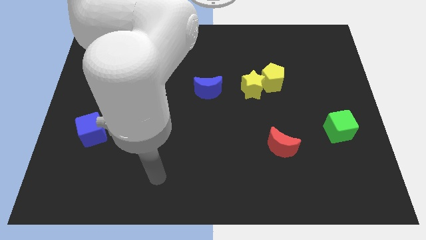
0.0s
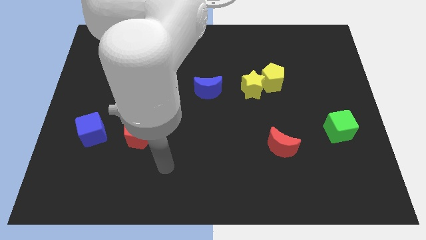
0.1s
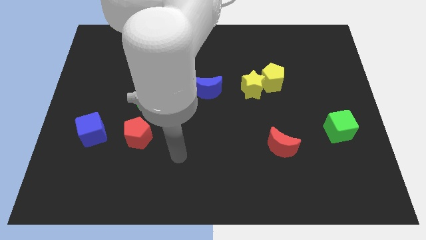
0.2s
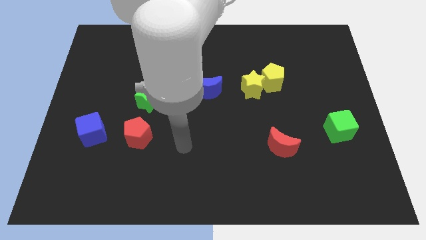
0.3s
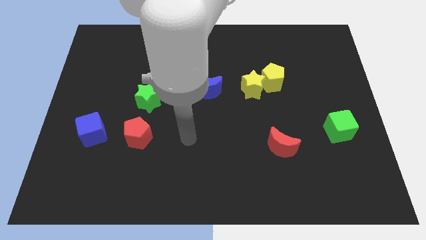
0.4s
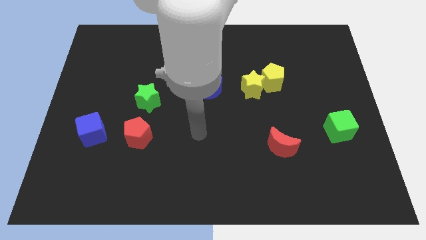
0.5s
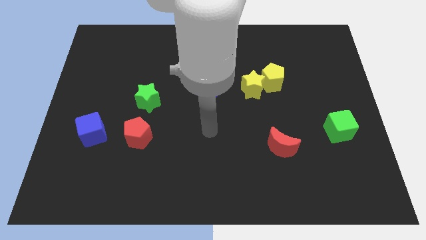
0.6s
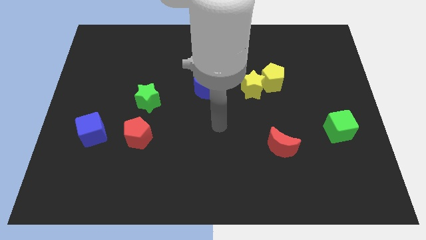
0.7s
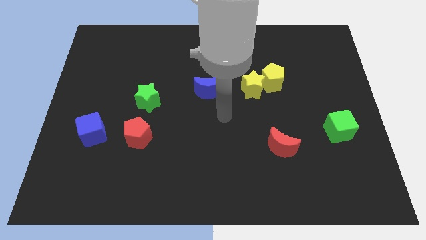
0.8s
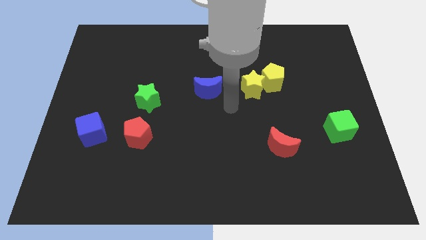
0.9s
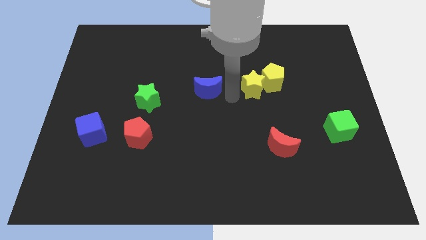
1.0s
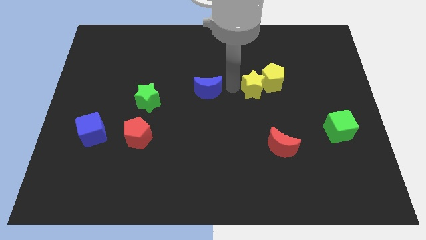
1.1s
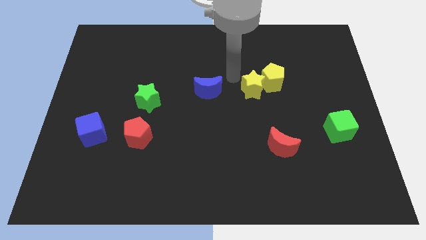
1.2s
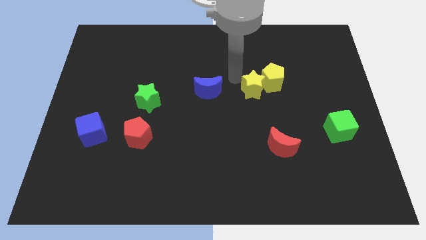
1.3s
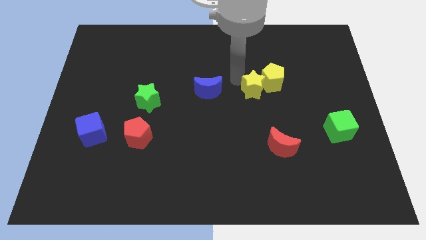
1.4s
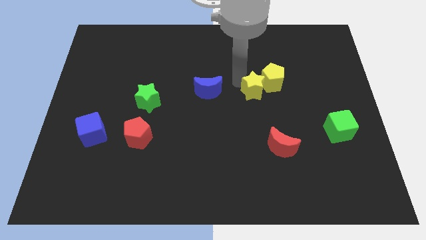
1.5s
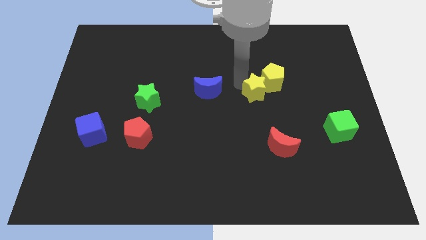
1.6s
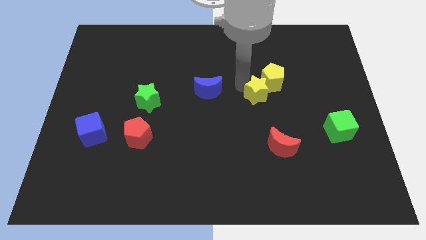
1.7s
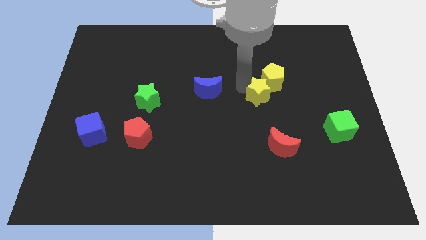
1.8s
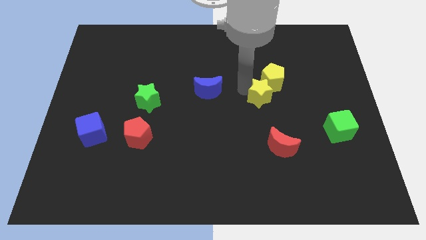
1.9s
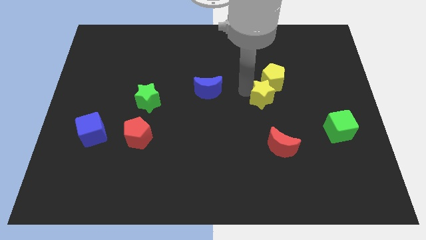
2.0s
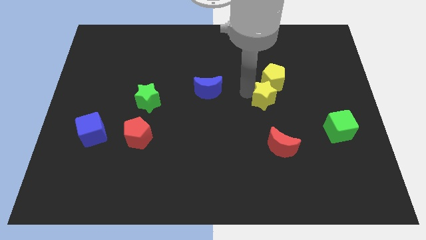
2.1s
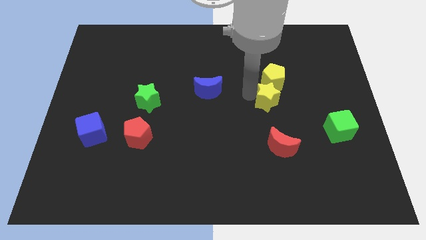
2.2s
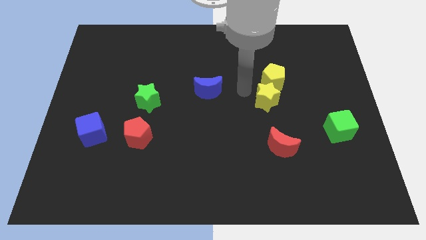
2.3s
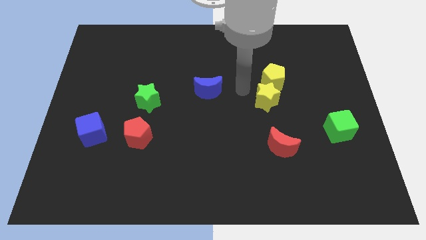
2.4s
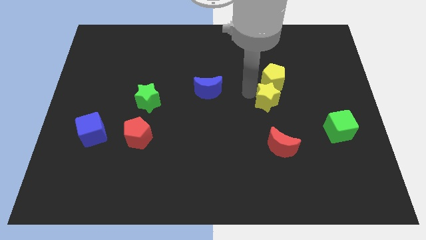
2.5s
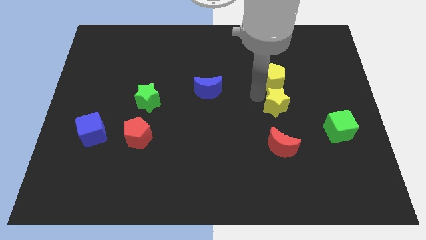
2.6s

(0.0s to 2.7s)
move the yellow star down and to the right a little

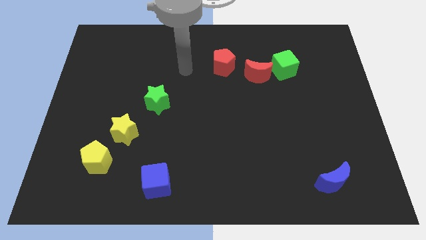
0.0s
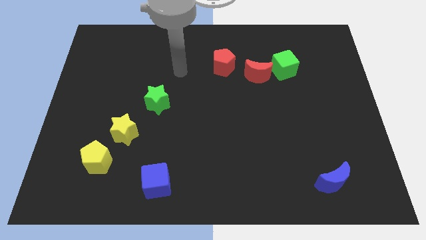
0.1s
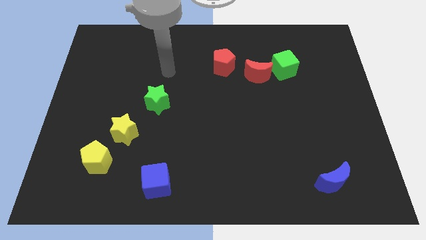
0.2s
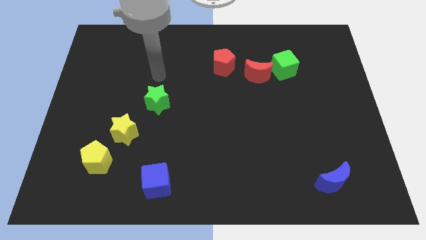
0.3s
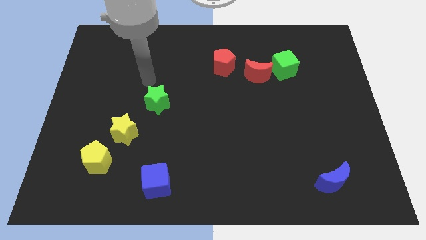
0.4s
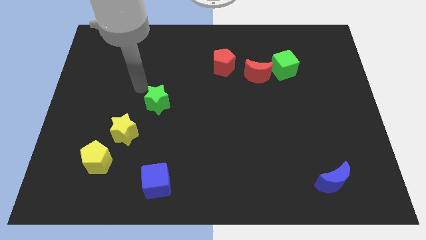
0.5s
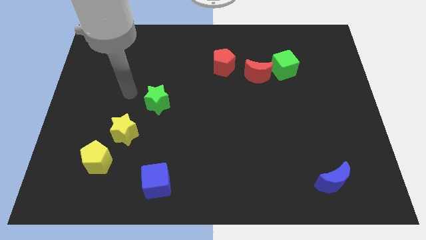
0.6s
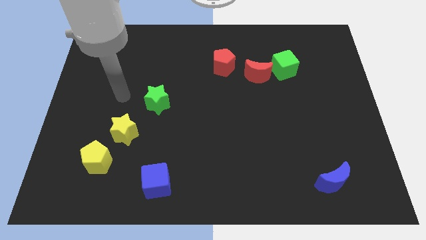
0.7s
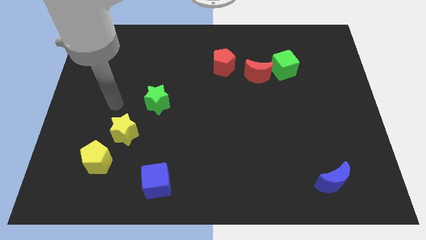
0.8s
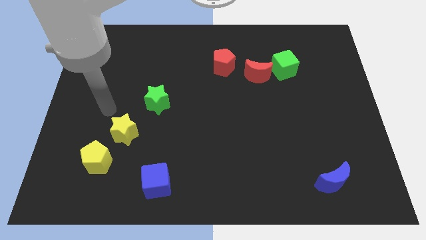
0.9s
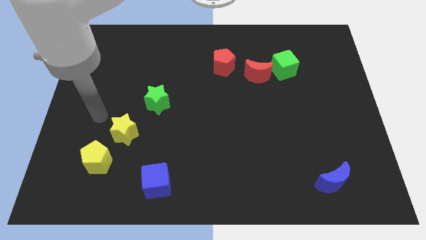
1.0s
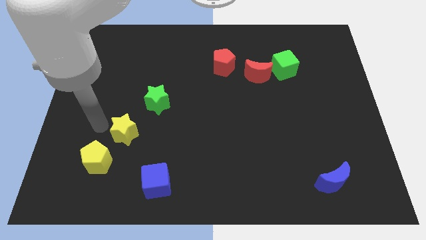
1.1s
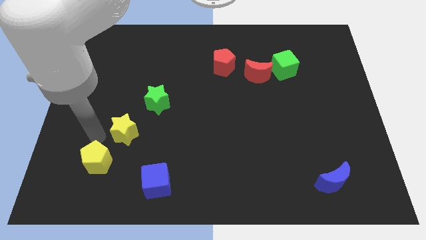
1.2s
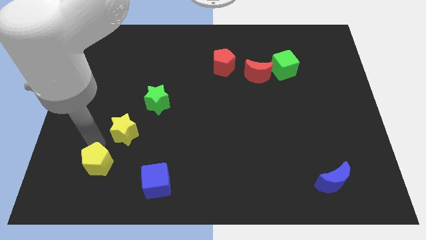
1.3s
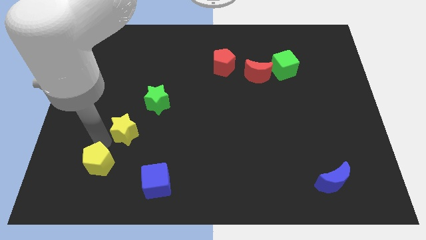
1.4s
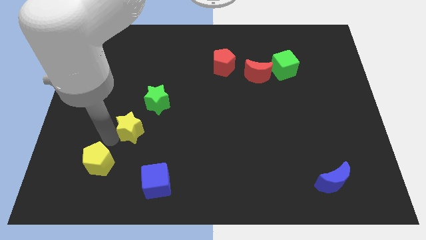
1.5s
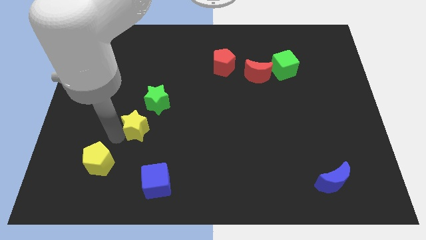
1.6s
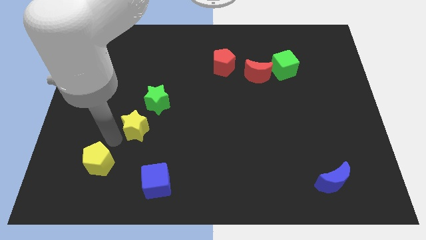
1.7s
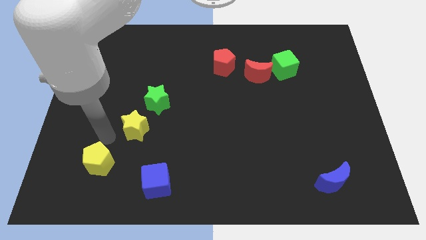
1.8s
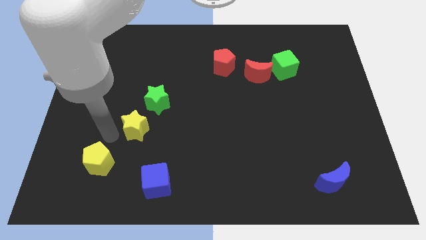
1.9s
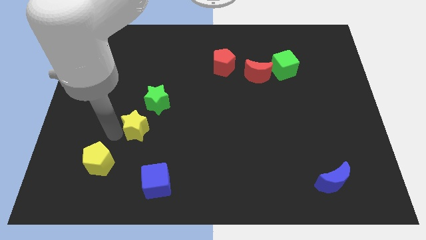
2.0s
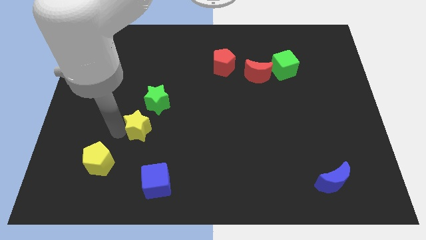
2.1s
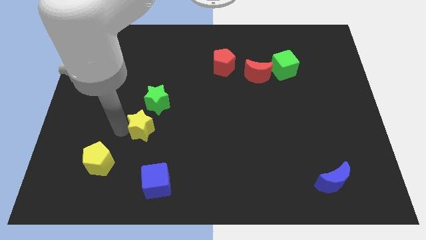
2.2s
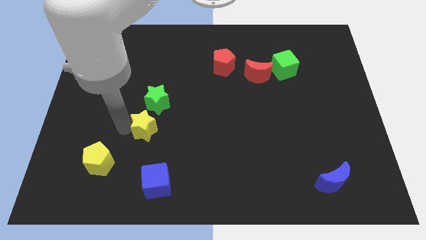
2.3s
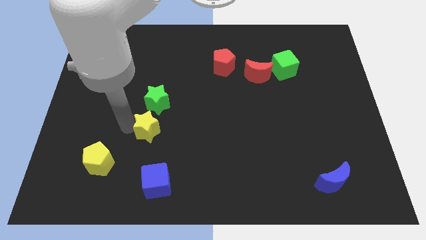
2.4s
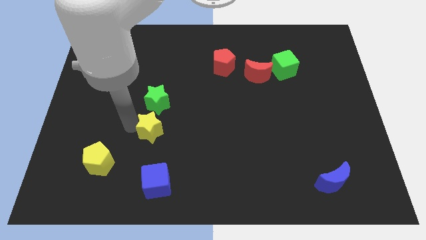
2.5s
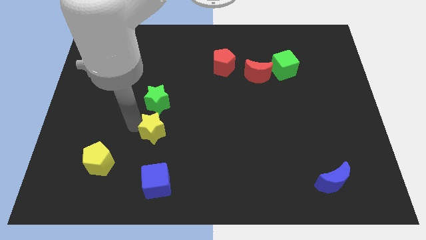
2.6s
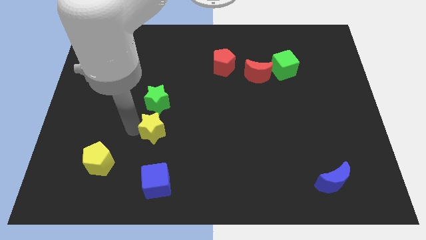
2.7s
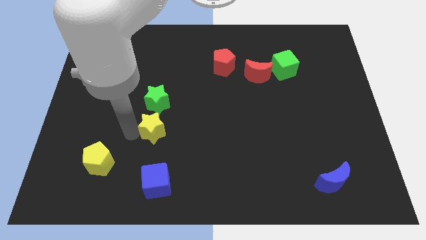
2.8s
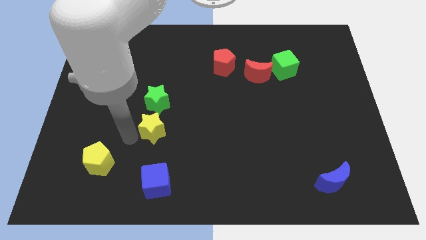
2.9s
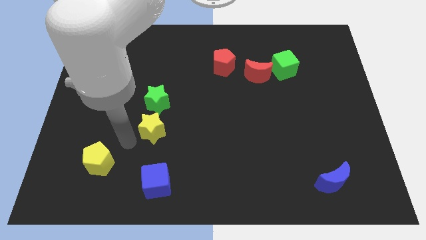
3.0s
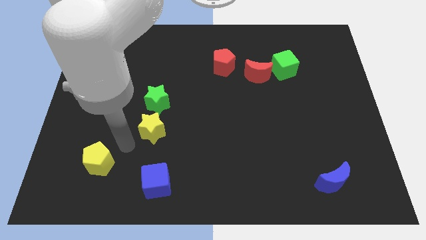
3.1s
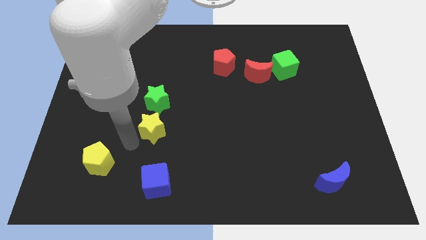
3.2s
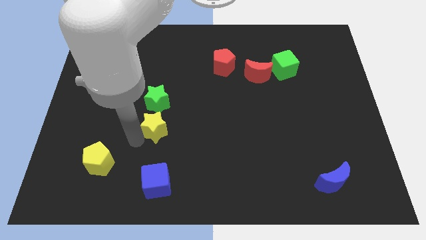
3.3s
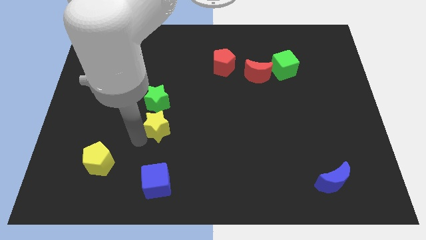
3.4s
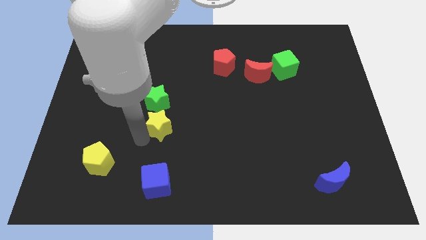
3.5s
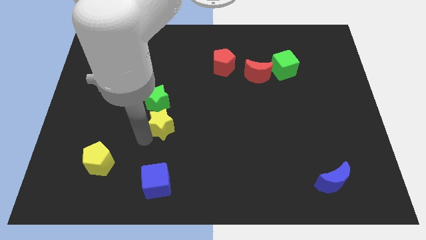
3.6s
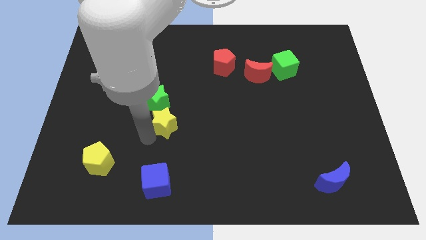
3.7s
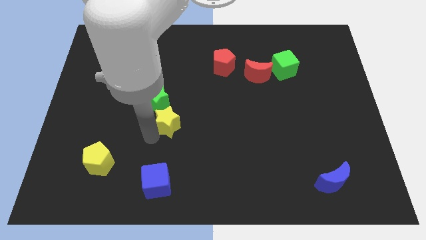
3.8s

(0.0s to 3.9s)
push the yellow star upwards and then right slightly

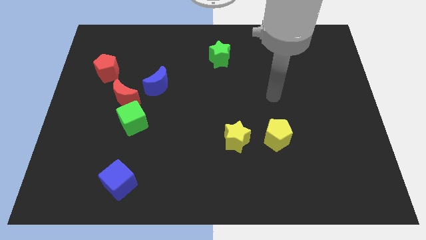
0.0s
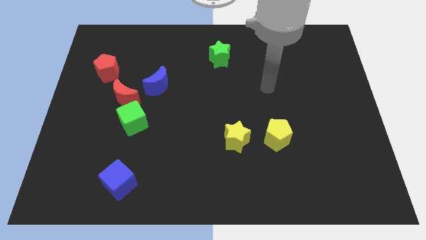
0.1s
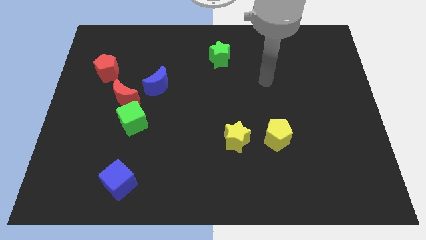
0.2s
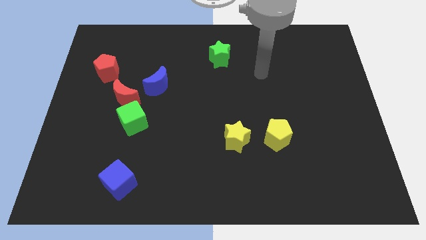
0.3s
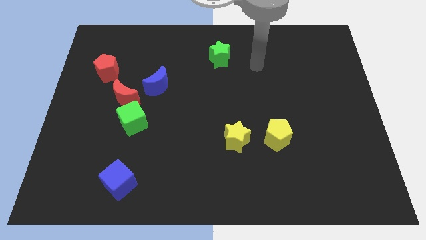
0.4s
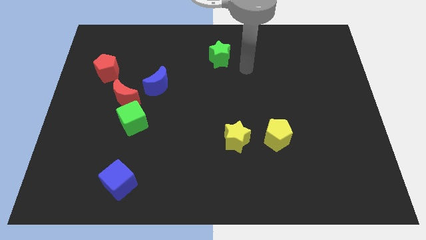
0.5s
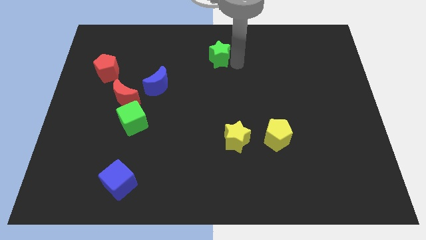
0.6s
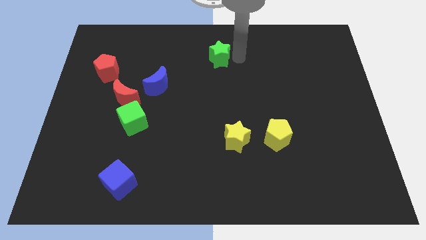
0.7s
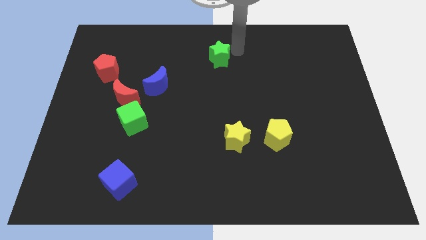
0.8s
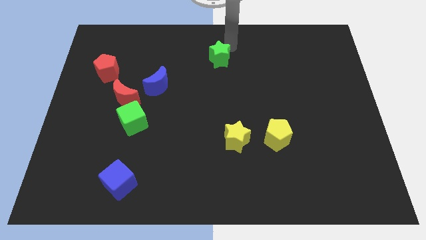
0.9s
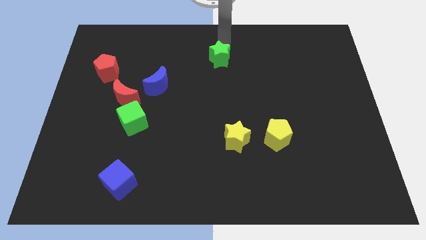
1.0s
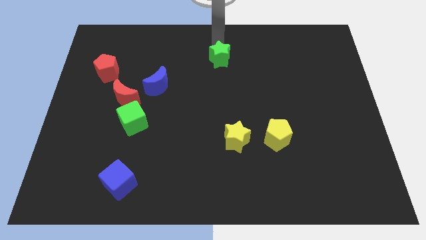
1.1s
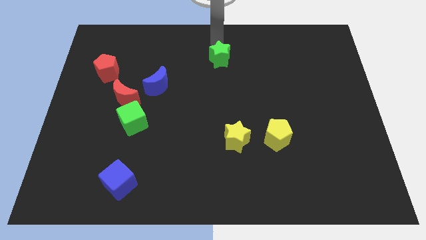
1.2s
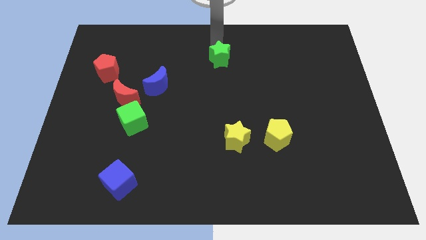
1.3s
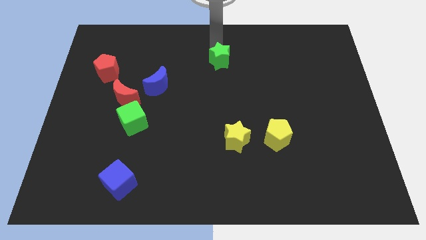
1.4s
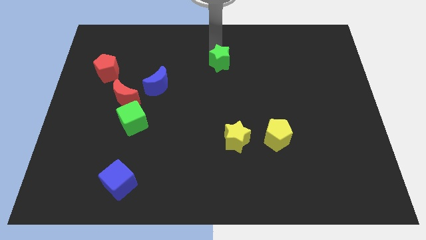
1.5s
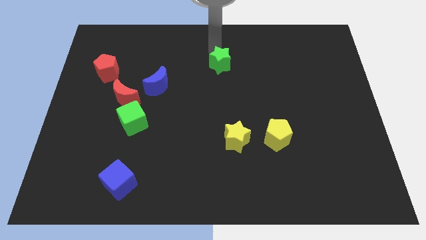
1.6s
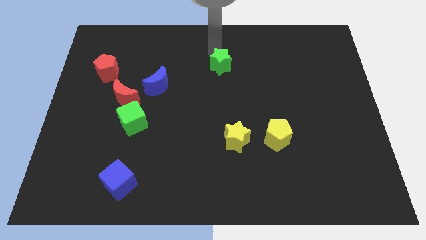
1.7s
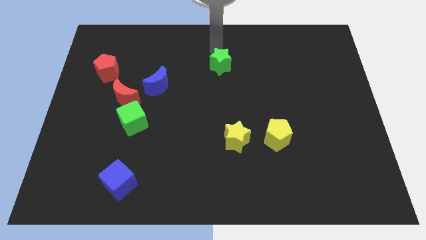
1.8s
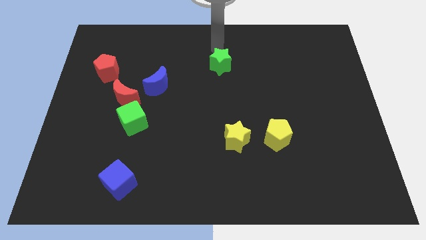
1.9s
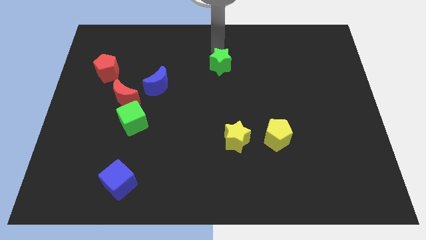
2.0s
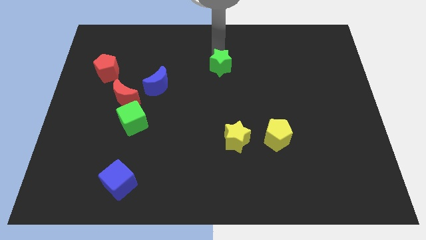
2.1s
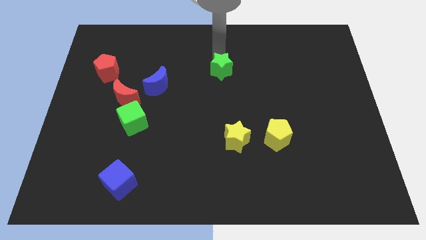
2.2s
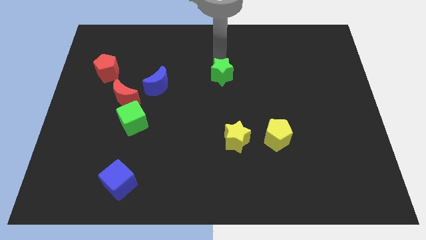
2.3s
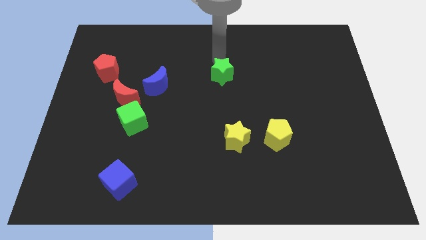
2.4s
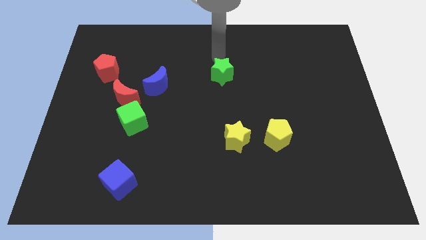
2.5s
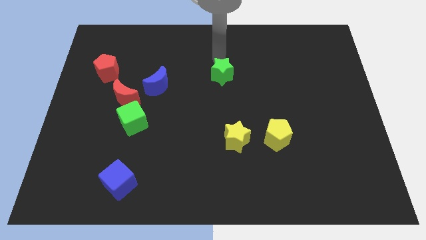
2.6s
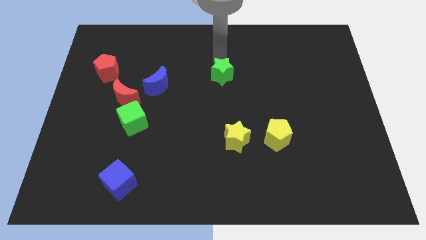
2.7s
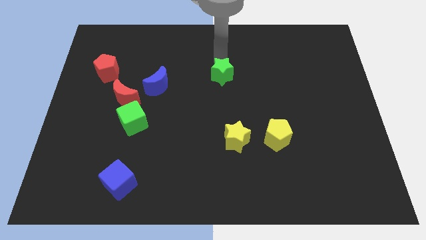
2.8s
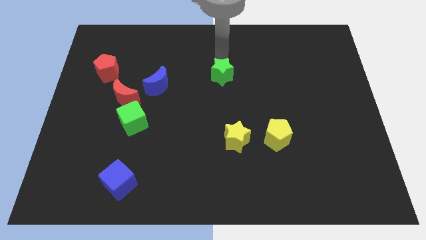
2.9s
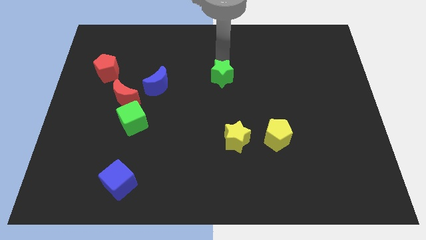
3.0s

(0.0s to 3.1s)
move the green star a little down
